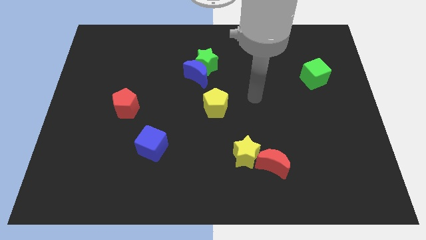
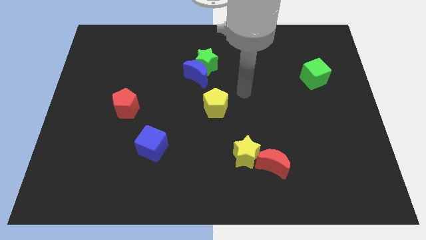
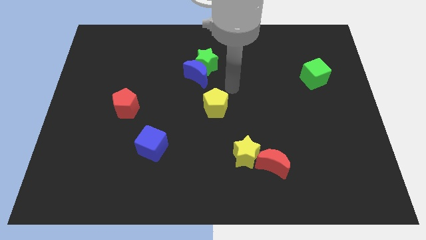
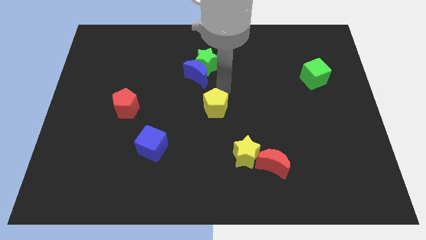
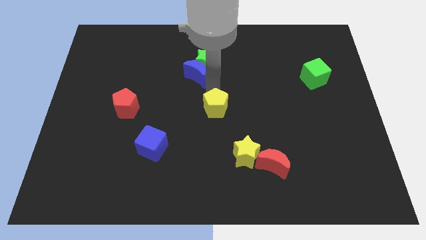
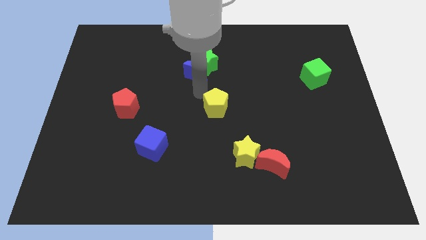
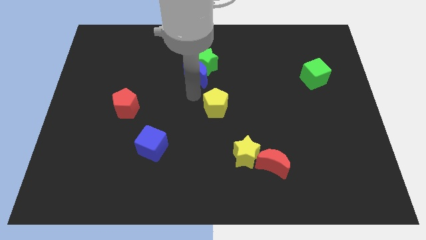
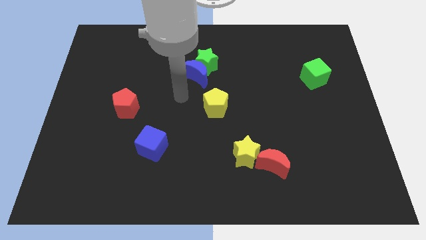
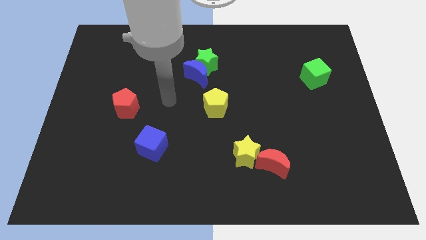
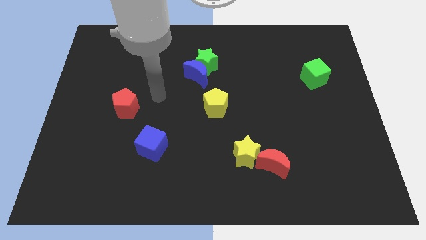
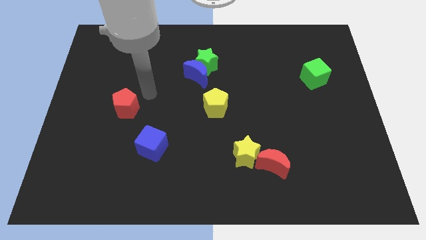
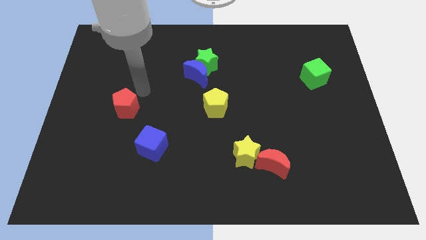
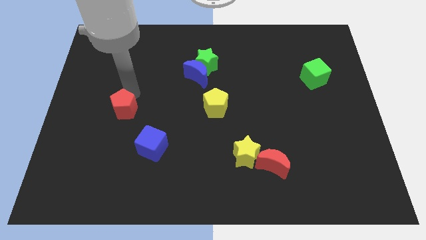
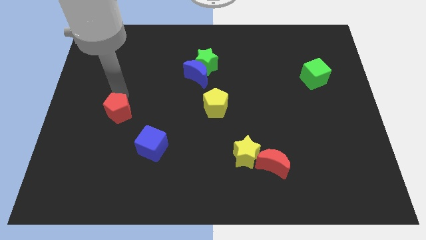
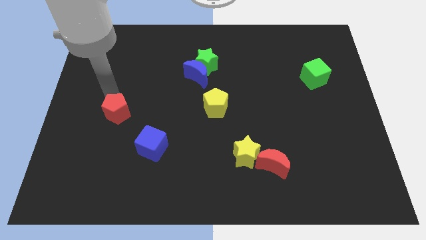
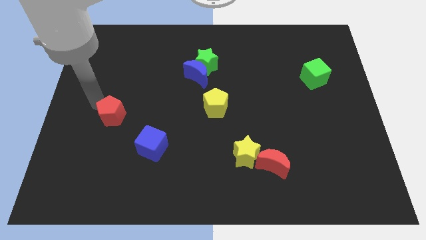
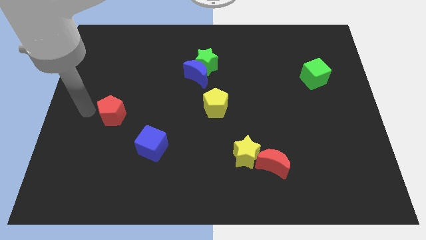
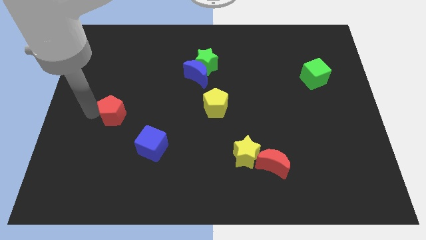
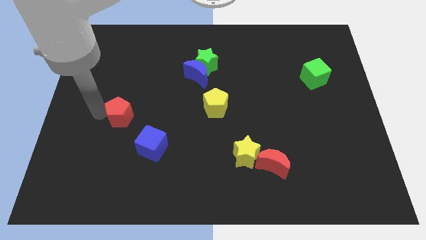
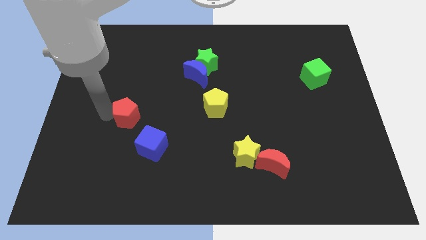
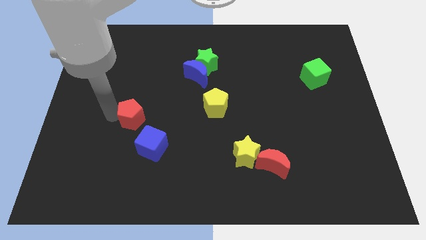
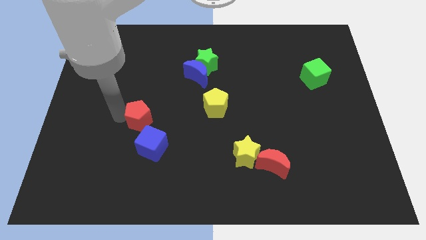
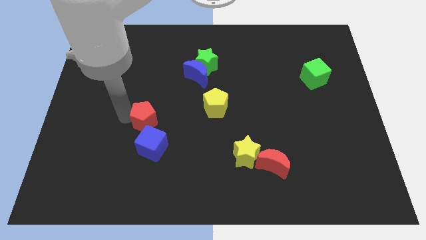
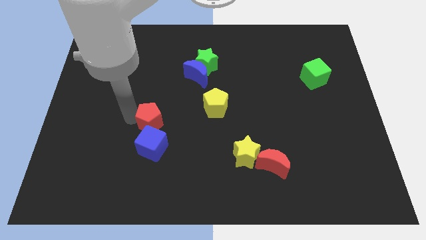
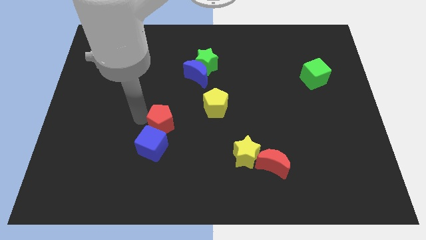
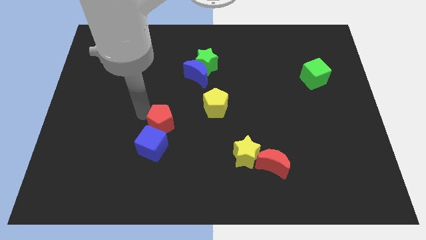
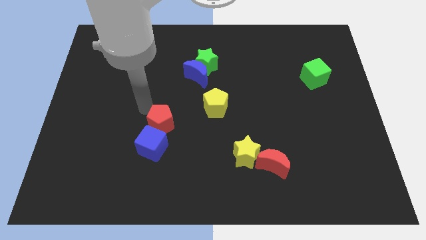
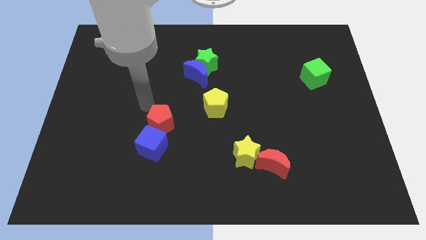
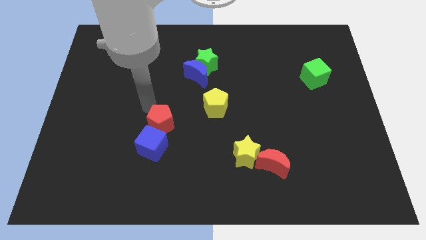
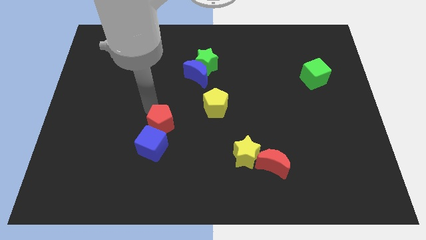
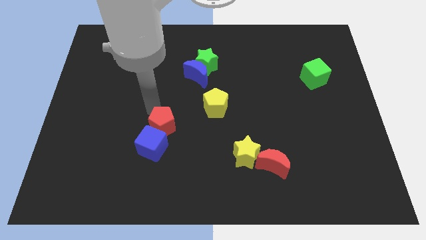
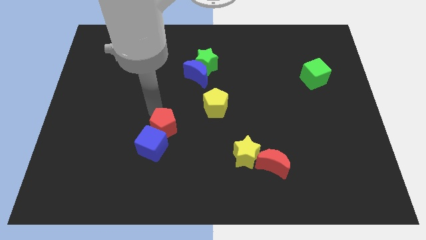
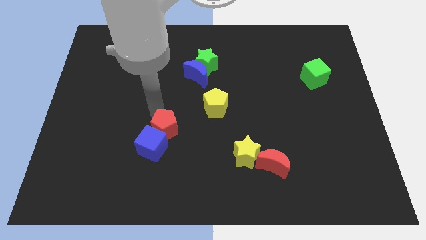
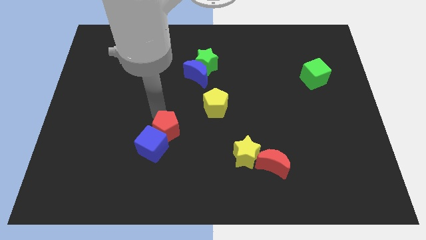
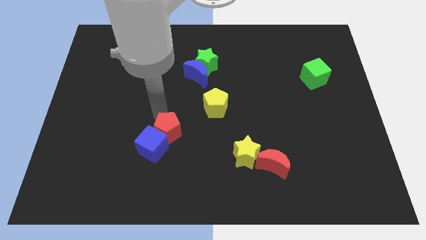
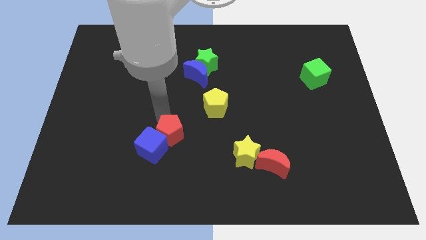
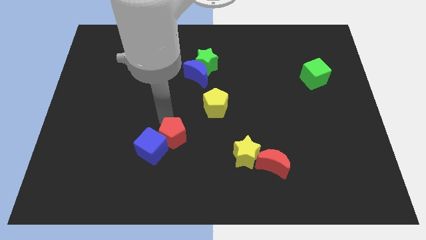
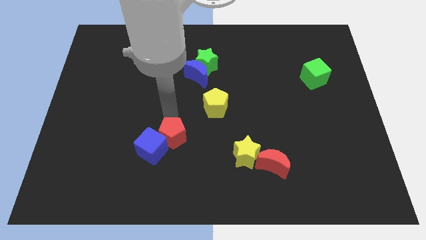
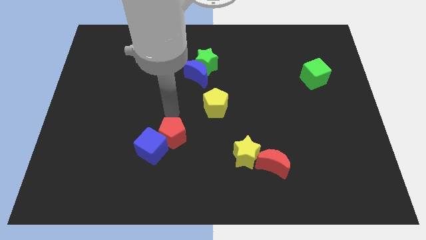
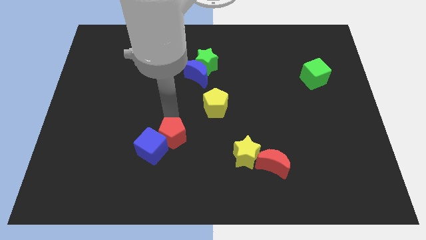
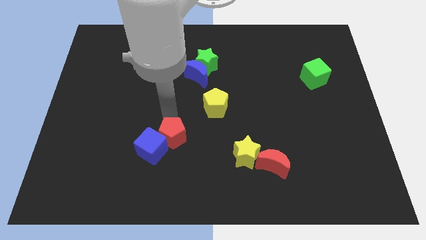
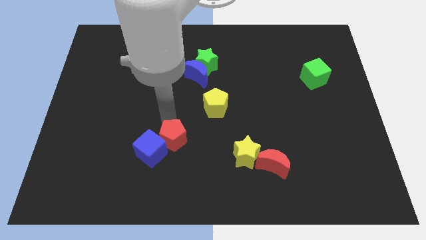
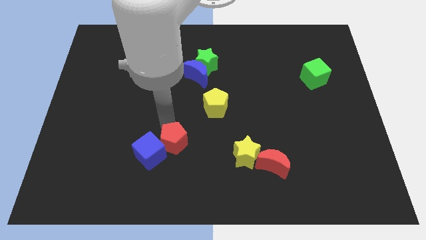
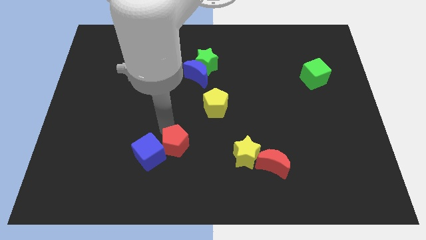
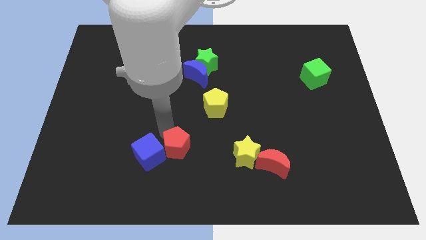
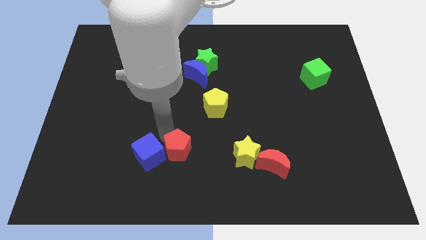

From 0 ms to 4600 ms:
put the red pentagon to the bottom right side of the blue cube

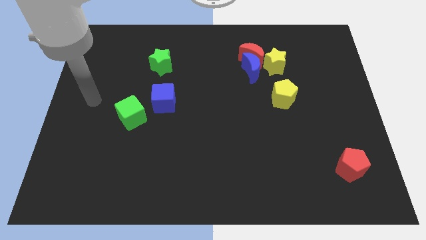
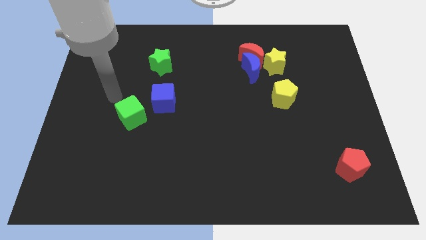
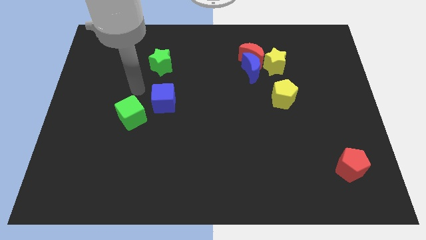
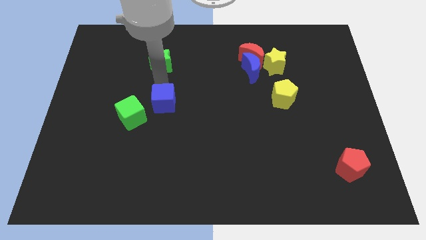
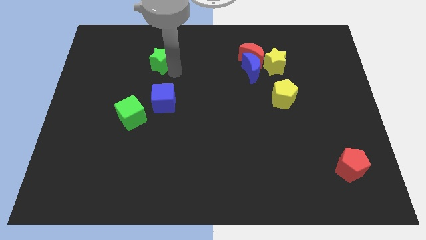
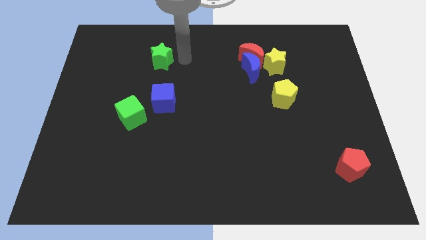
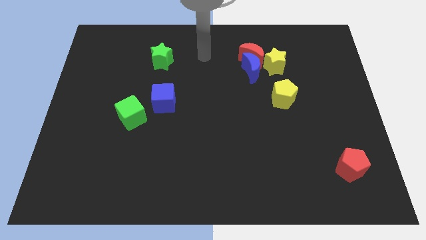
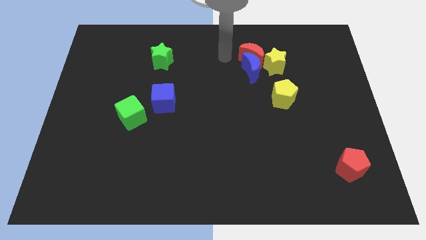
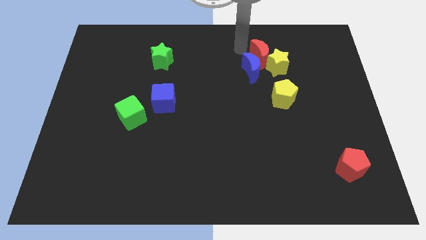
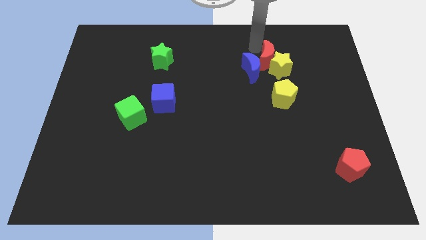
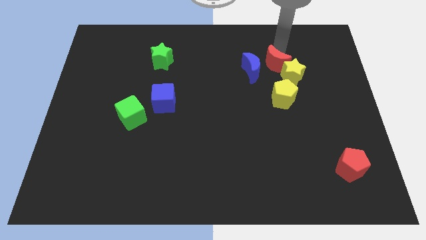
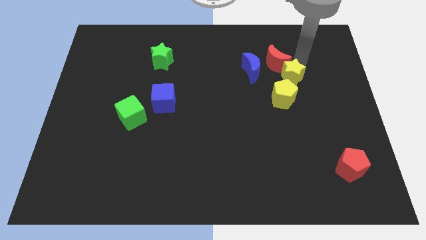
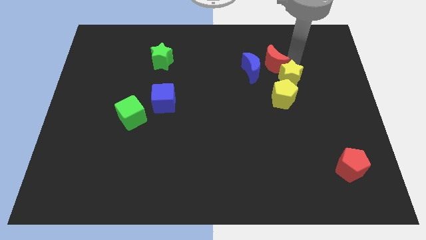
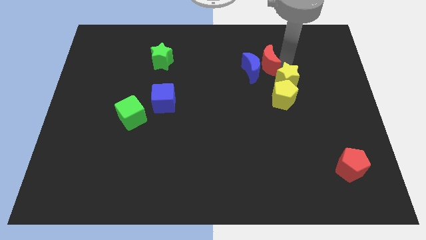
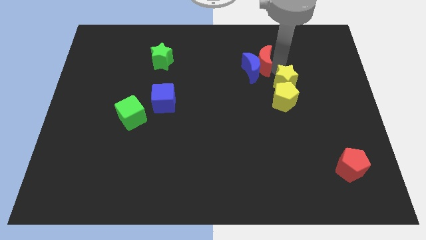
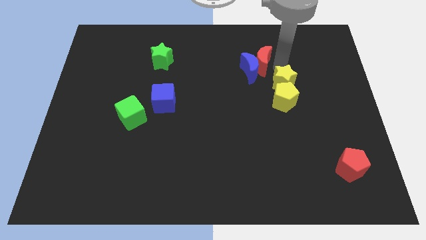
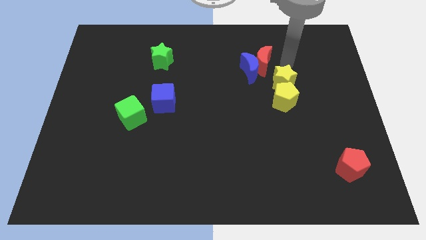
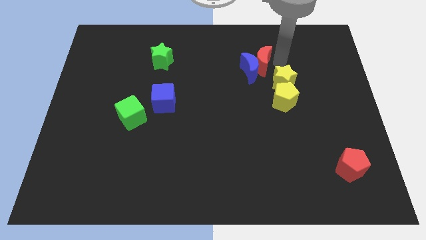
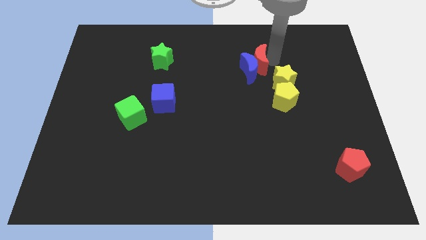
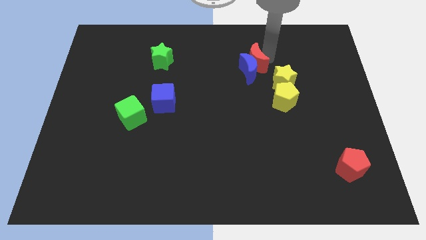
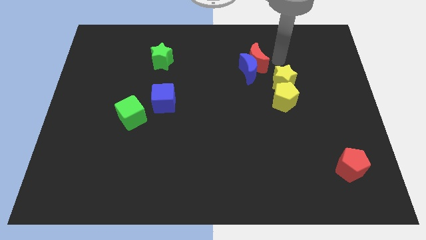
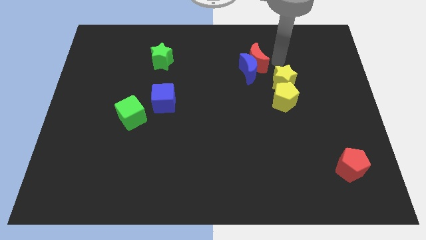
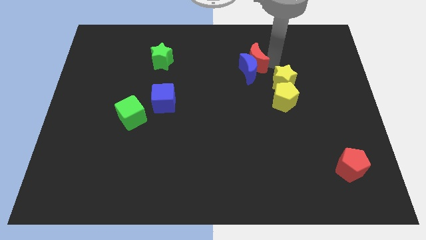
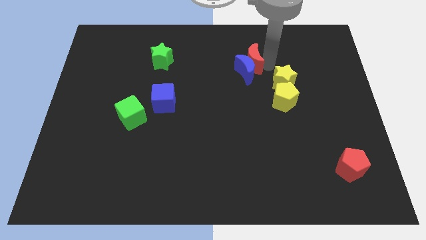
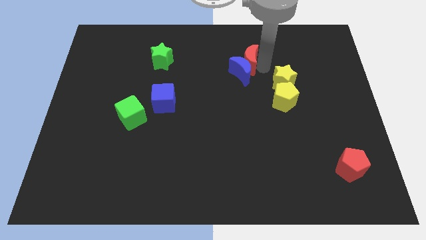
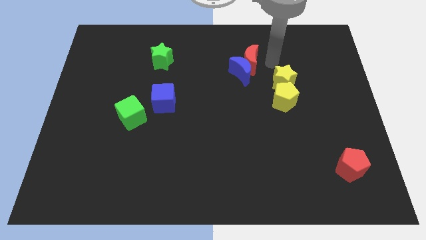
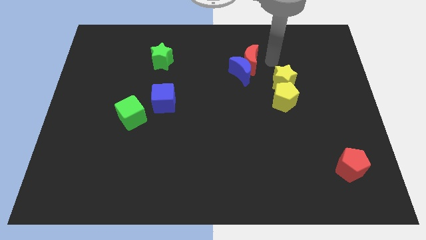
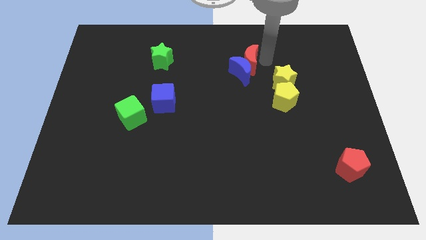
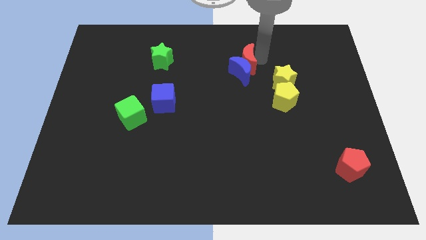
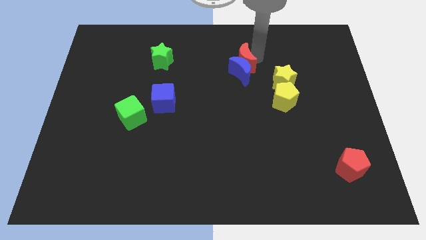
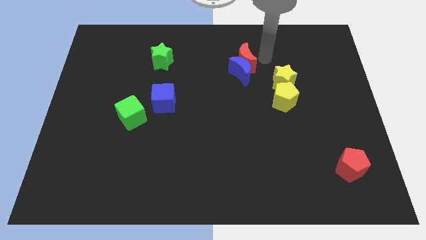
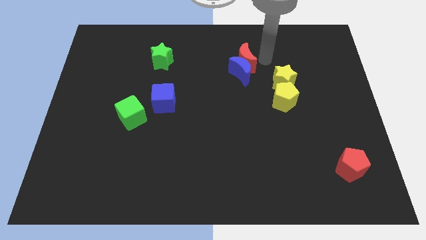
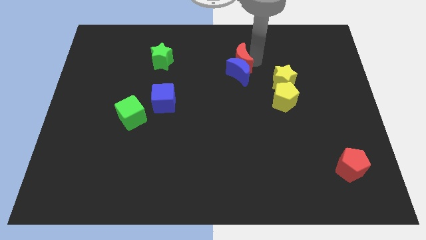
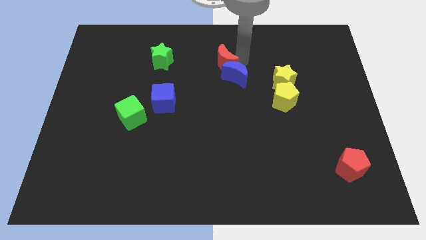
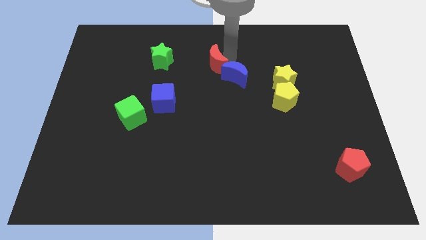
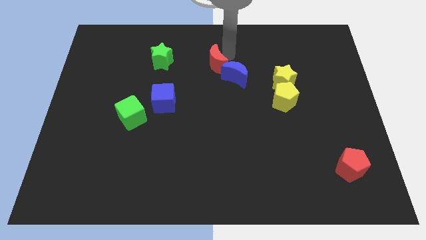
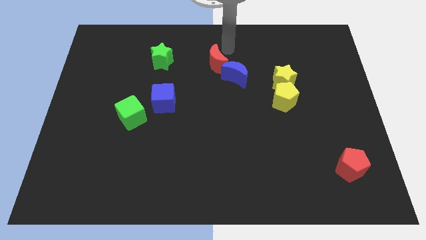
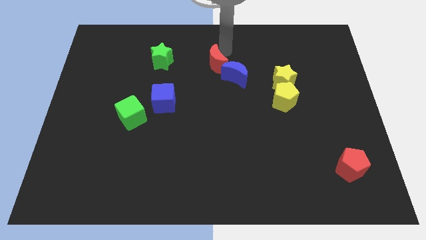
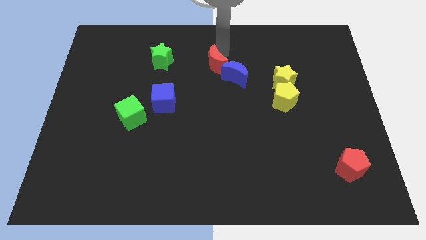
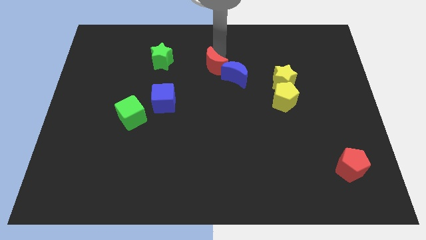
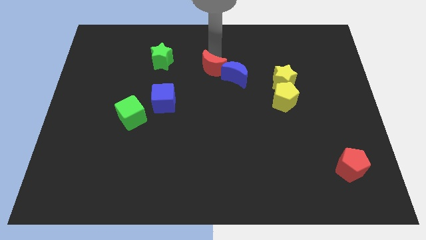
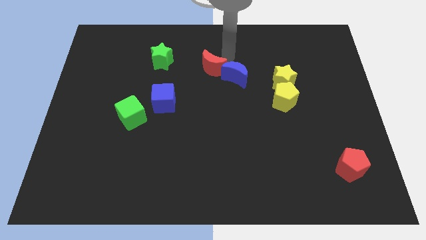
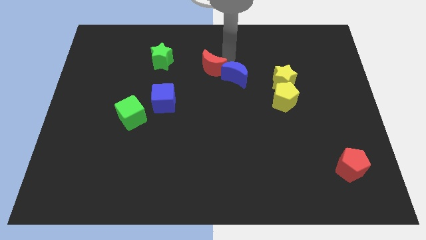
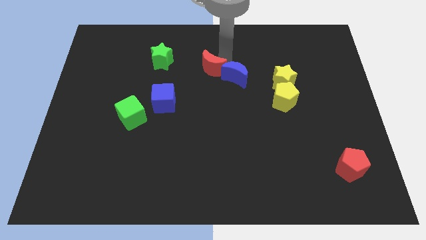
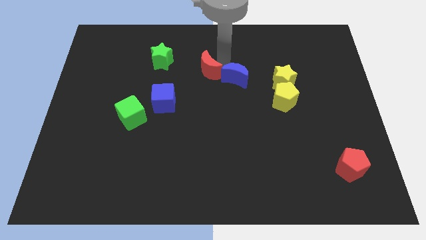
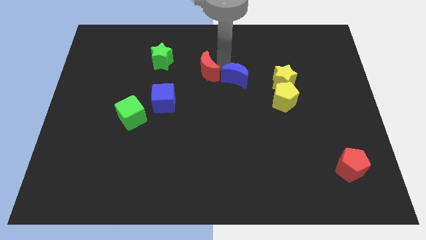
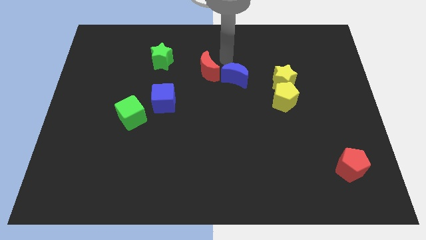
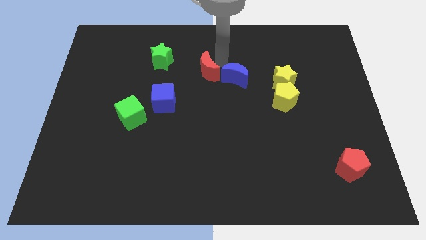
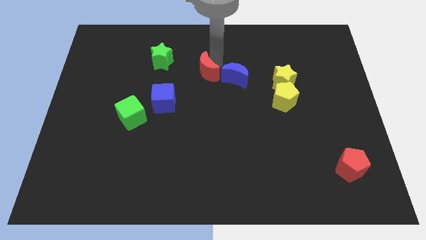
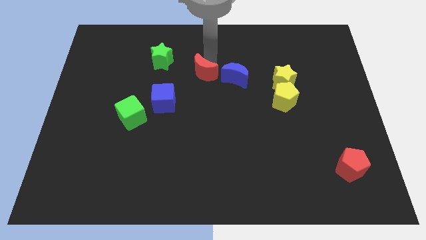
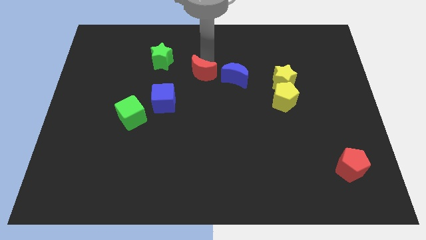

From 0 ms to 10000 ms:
push the red moon to the top right of the blue cube
